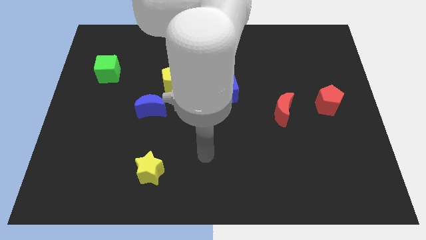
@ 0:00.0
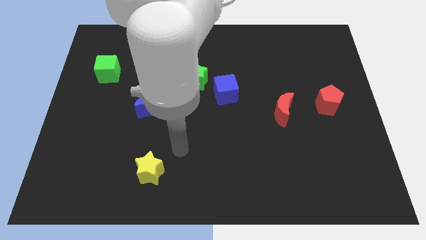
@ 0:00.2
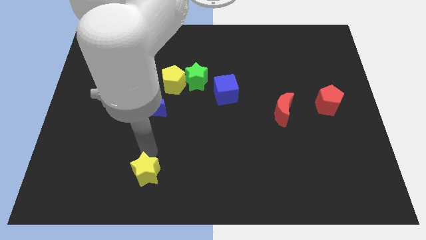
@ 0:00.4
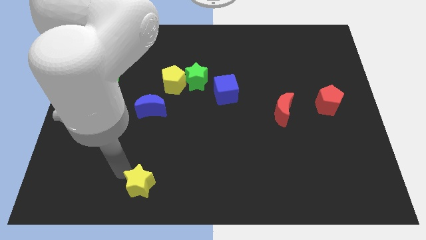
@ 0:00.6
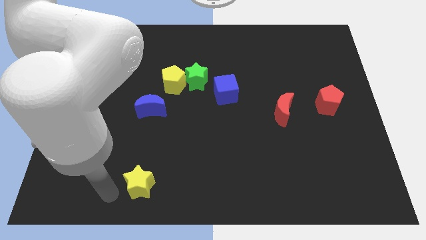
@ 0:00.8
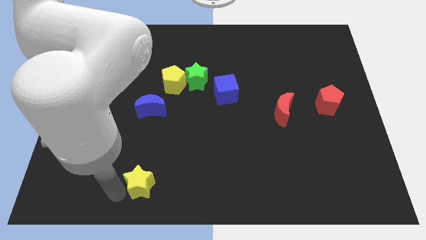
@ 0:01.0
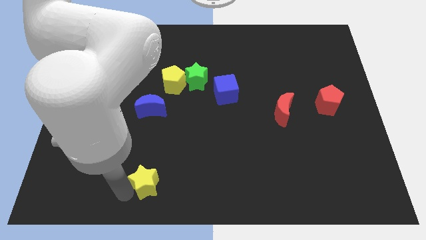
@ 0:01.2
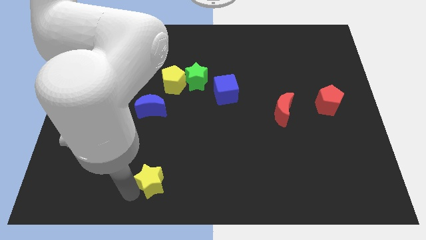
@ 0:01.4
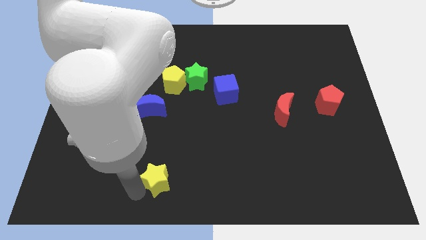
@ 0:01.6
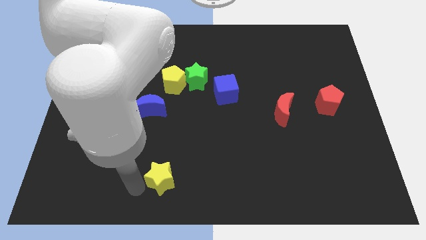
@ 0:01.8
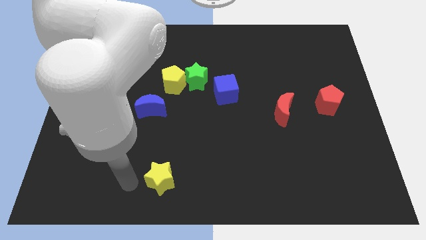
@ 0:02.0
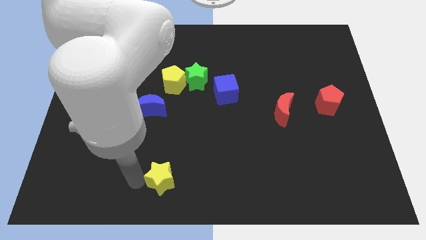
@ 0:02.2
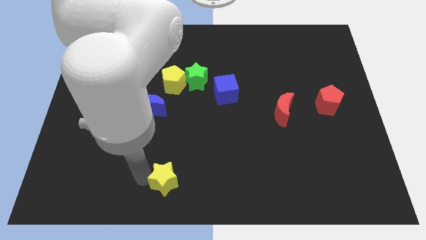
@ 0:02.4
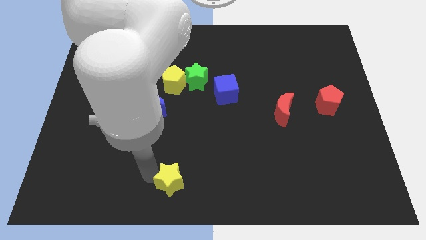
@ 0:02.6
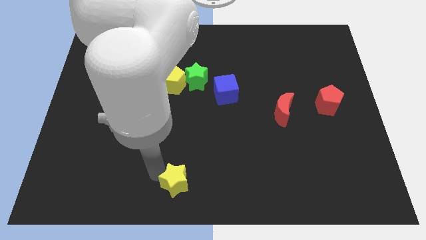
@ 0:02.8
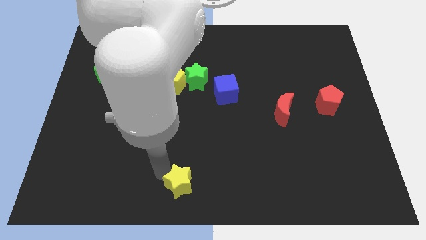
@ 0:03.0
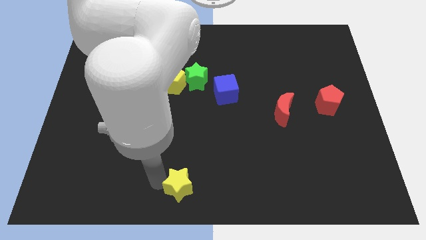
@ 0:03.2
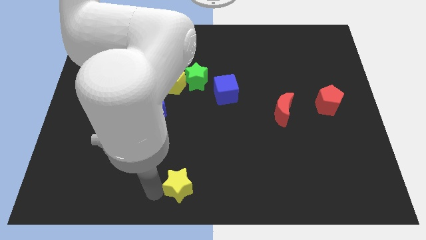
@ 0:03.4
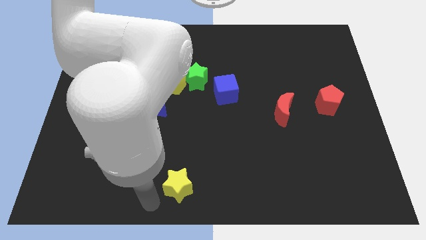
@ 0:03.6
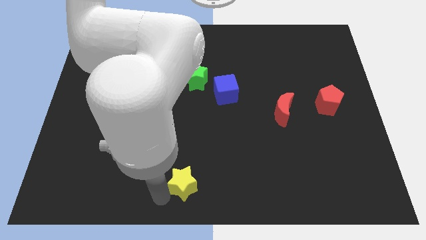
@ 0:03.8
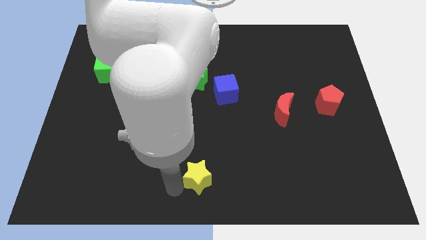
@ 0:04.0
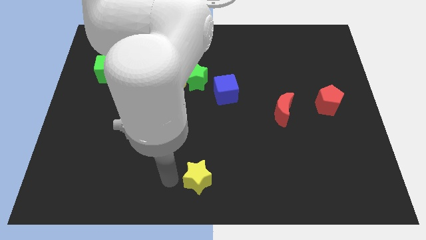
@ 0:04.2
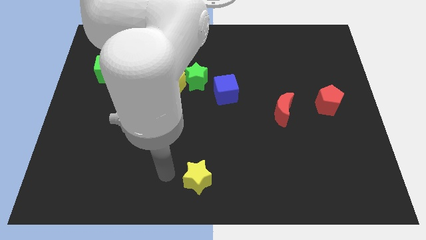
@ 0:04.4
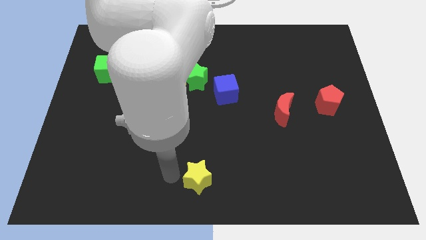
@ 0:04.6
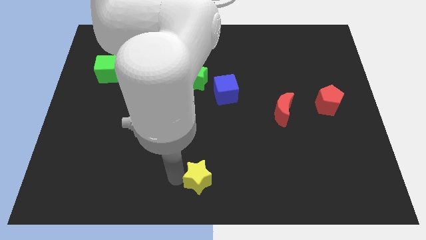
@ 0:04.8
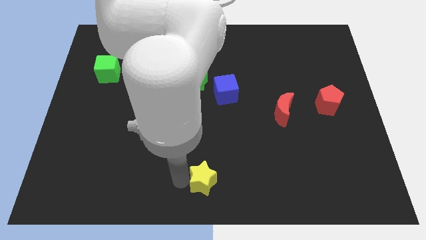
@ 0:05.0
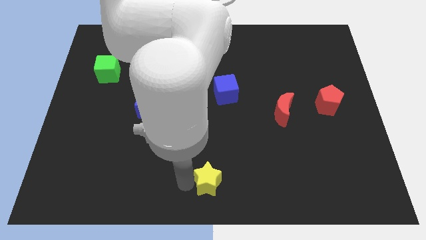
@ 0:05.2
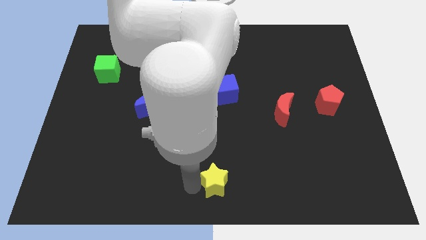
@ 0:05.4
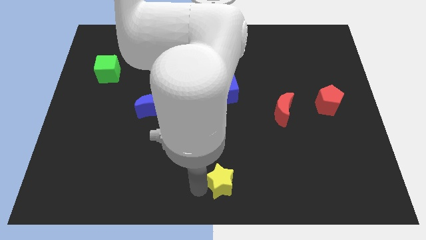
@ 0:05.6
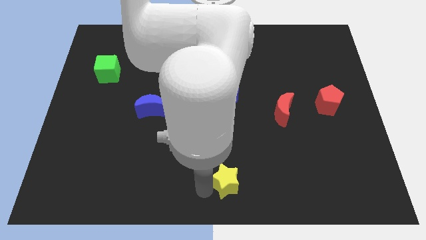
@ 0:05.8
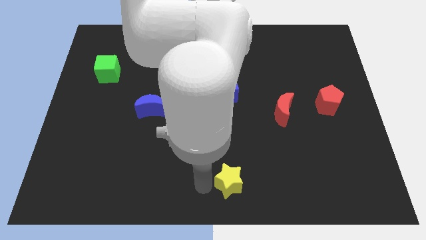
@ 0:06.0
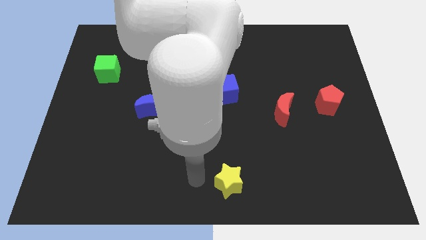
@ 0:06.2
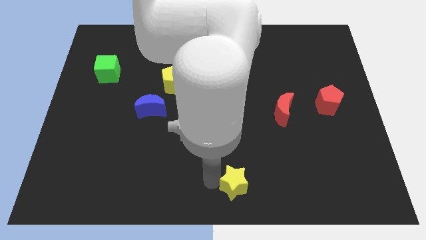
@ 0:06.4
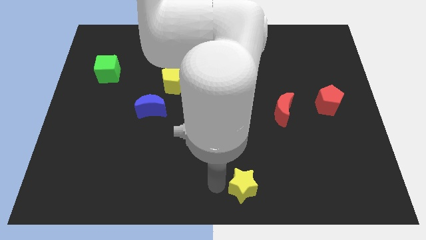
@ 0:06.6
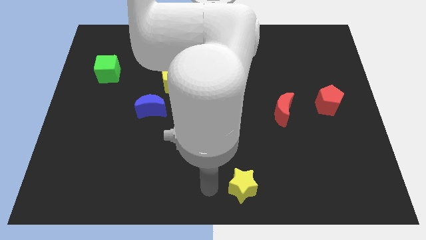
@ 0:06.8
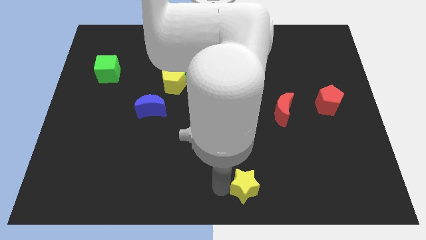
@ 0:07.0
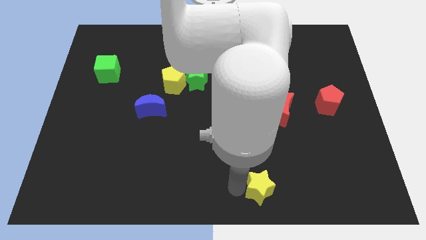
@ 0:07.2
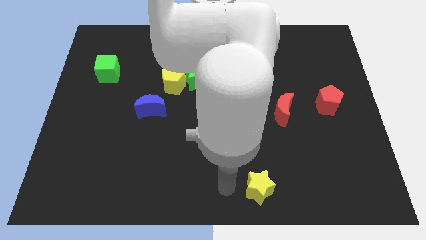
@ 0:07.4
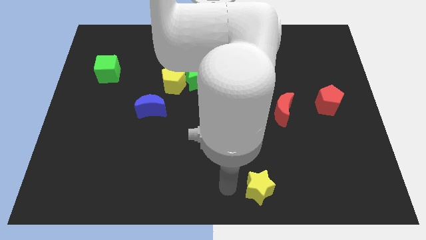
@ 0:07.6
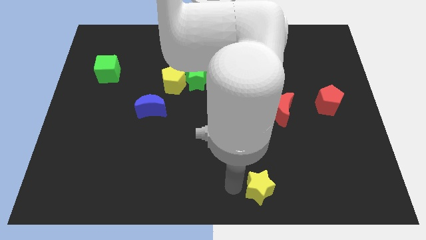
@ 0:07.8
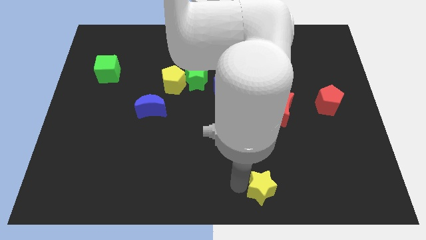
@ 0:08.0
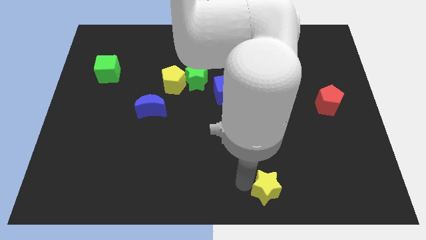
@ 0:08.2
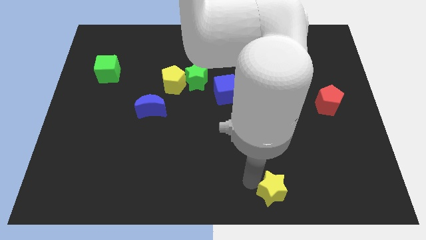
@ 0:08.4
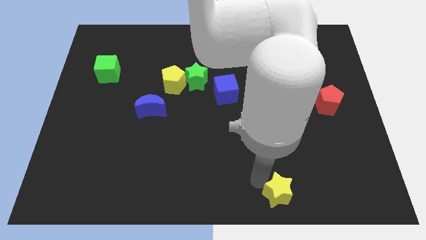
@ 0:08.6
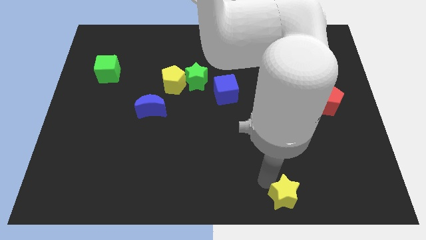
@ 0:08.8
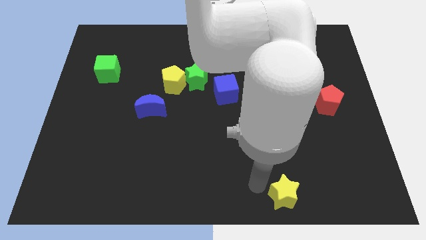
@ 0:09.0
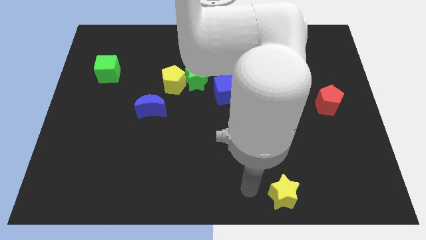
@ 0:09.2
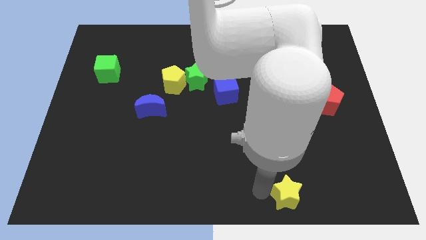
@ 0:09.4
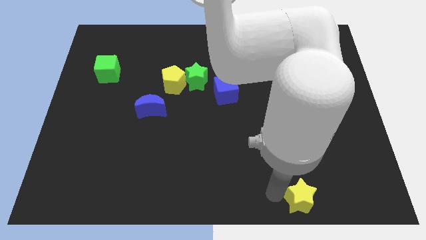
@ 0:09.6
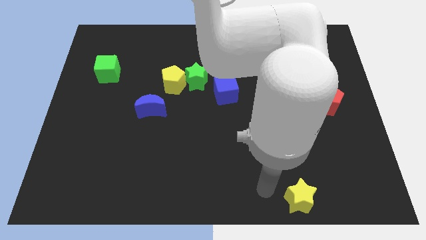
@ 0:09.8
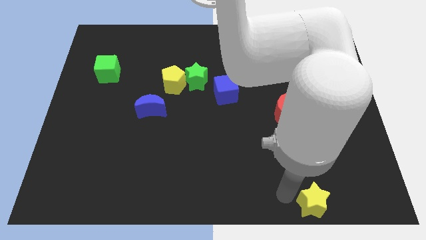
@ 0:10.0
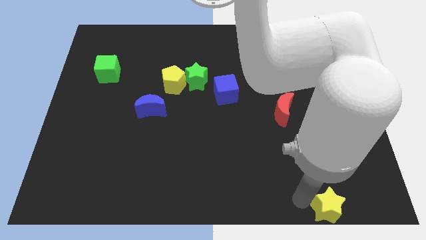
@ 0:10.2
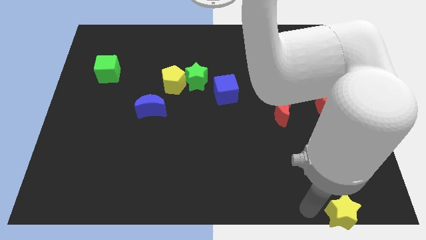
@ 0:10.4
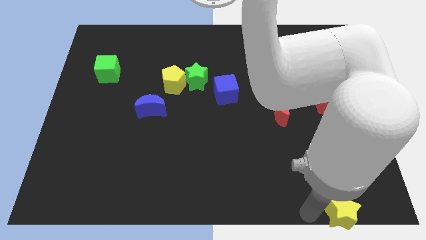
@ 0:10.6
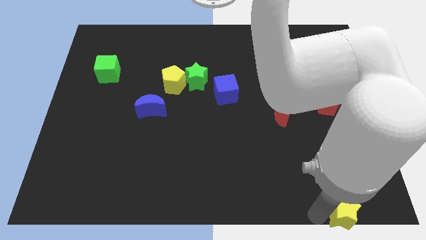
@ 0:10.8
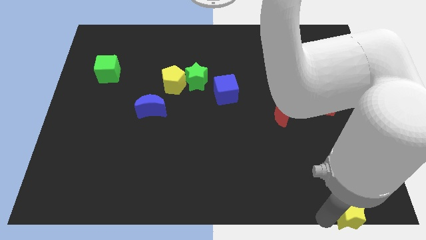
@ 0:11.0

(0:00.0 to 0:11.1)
move the yellow star to the bottom right
